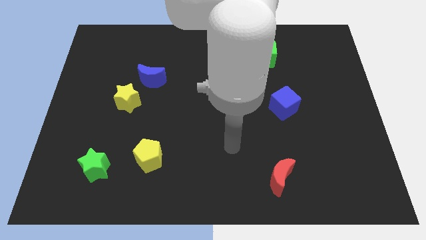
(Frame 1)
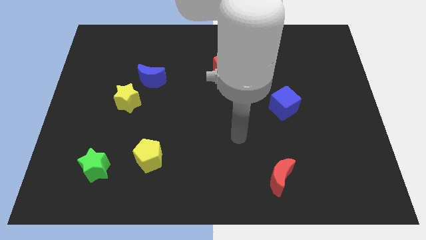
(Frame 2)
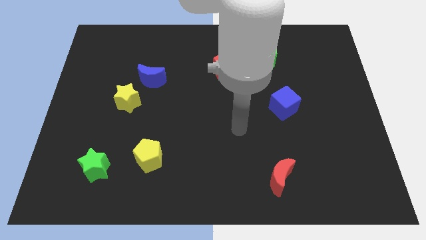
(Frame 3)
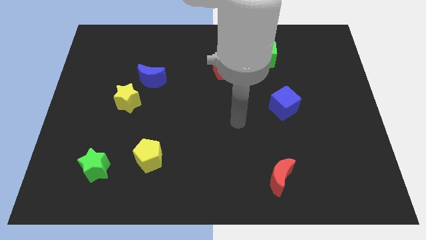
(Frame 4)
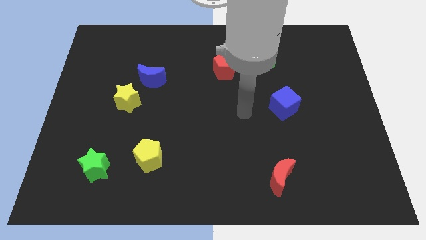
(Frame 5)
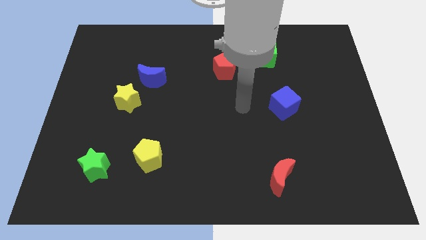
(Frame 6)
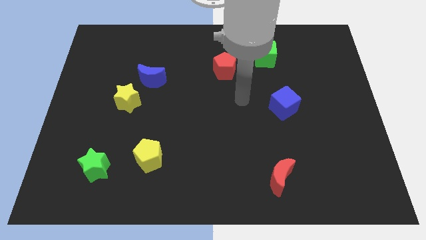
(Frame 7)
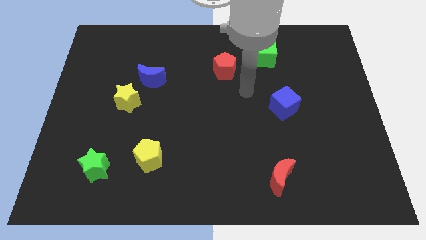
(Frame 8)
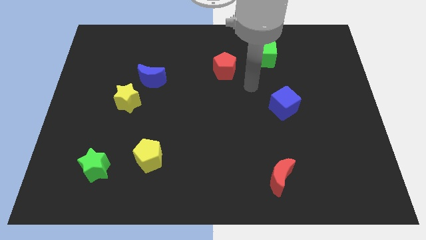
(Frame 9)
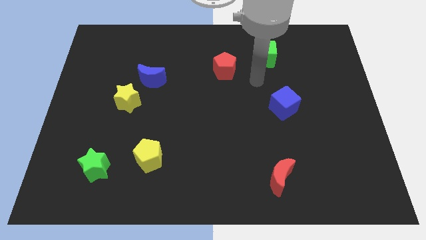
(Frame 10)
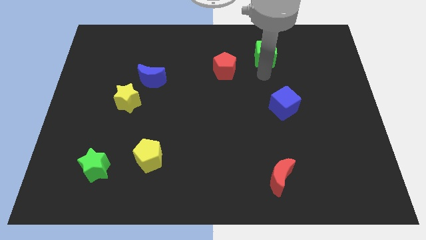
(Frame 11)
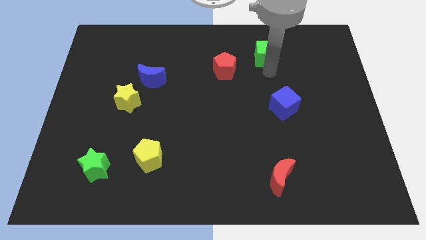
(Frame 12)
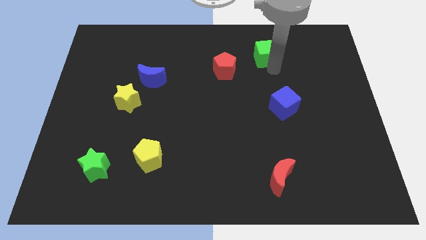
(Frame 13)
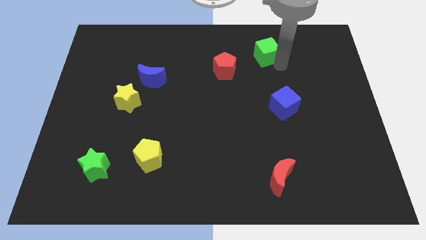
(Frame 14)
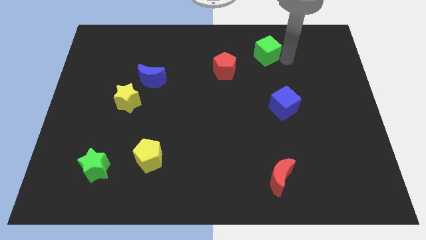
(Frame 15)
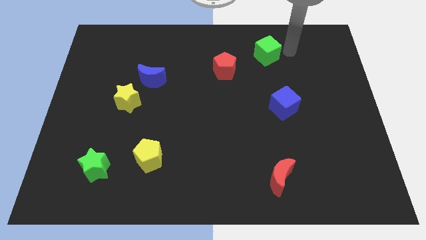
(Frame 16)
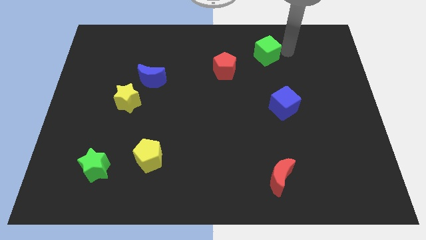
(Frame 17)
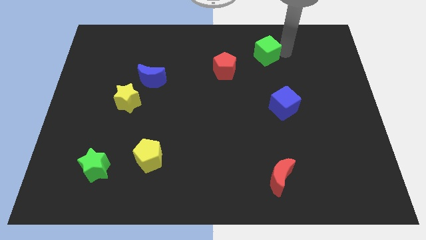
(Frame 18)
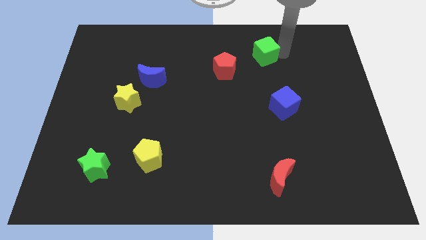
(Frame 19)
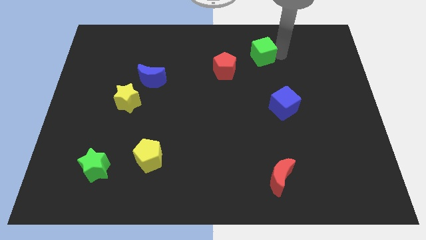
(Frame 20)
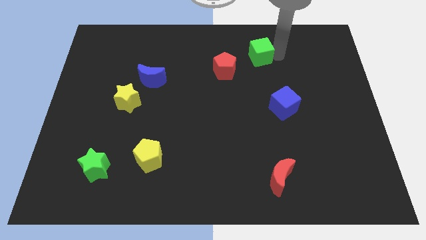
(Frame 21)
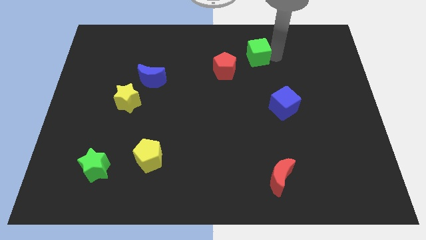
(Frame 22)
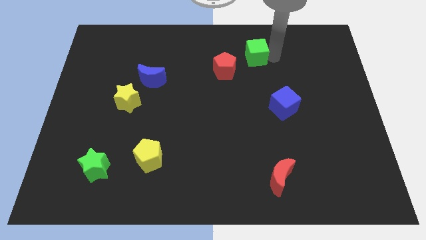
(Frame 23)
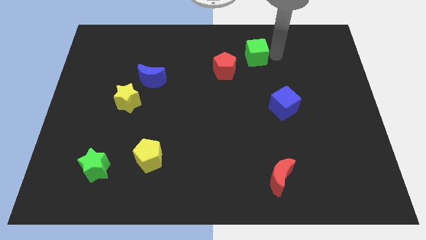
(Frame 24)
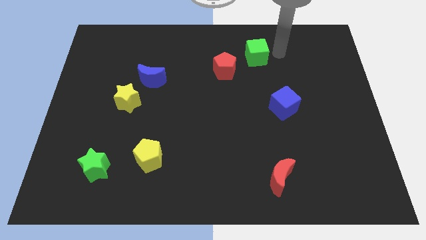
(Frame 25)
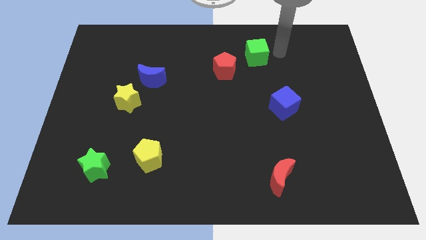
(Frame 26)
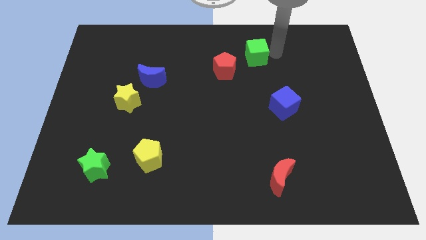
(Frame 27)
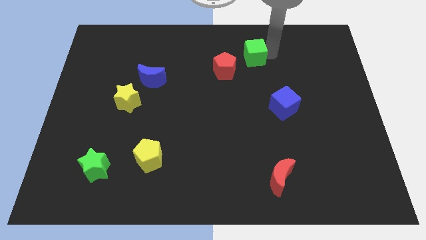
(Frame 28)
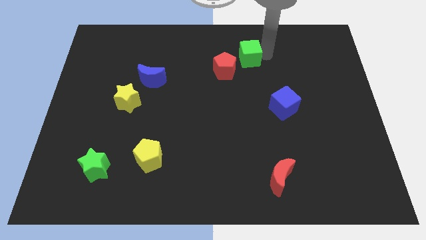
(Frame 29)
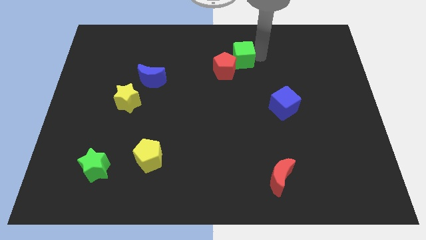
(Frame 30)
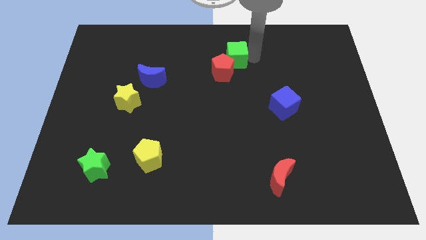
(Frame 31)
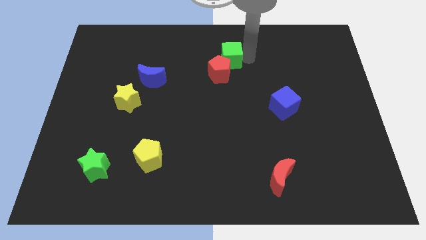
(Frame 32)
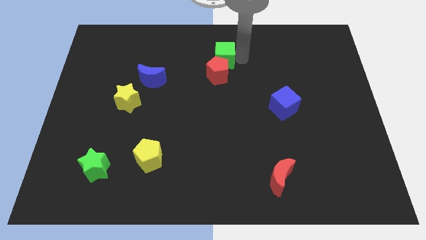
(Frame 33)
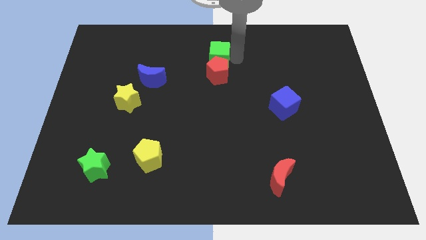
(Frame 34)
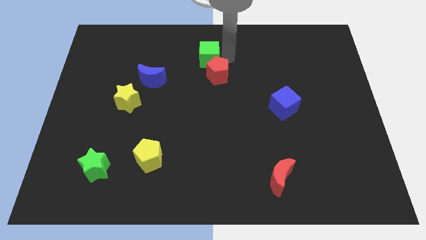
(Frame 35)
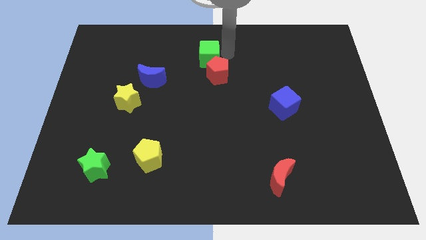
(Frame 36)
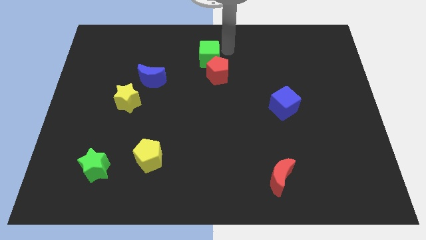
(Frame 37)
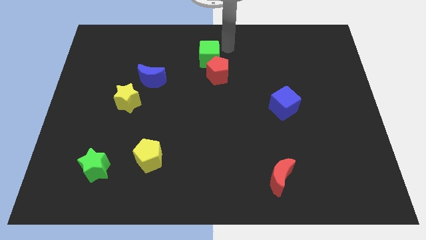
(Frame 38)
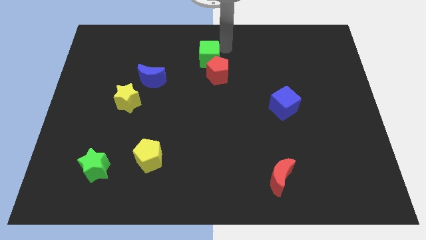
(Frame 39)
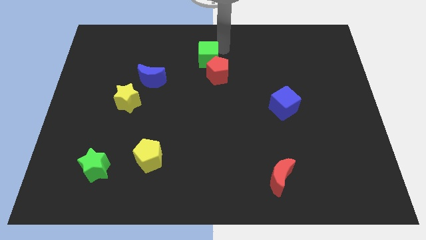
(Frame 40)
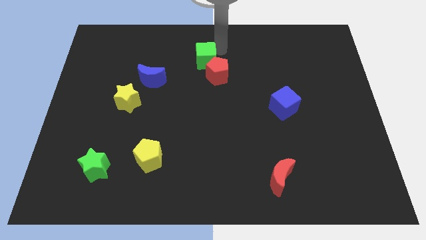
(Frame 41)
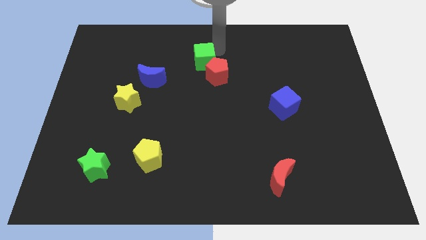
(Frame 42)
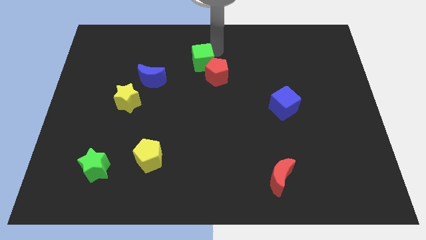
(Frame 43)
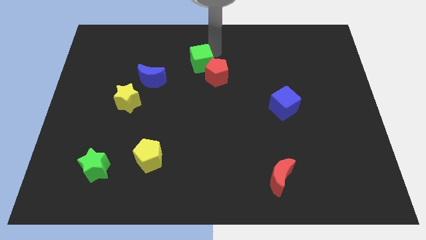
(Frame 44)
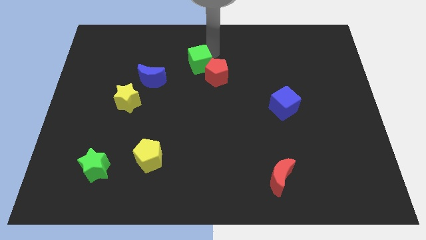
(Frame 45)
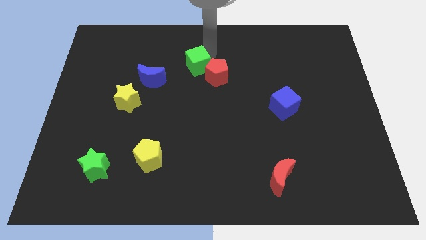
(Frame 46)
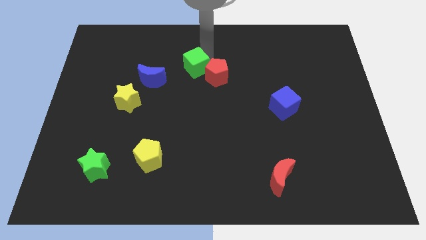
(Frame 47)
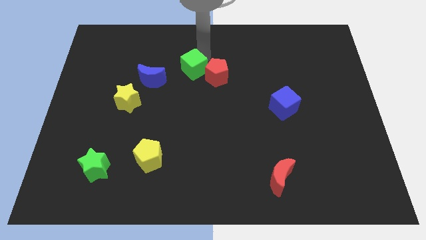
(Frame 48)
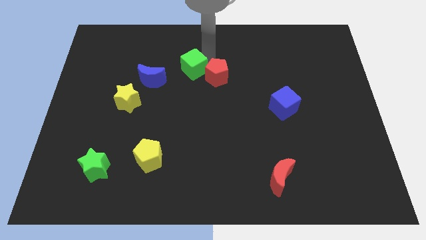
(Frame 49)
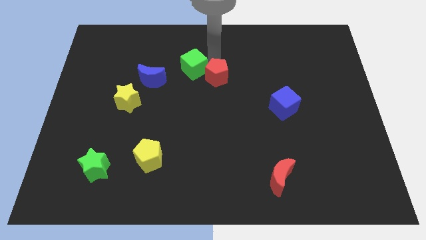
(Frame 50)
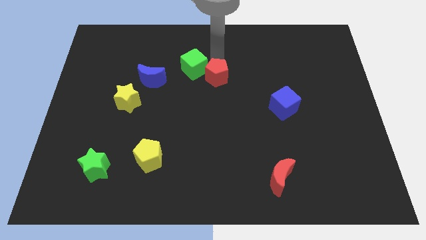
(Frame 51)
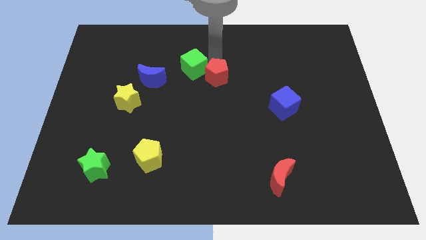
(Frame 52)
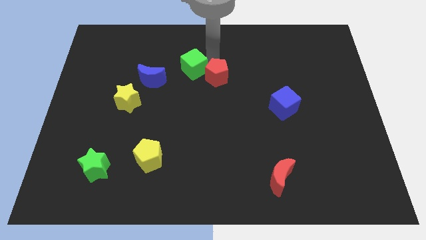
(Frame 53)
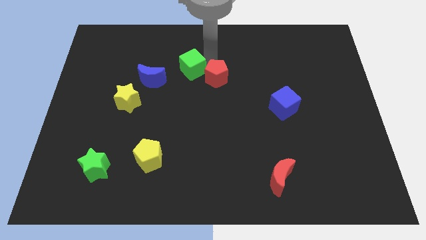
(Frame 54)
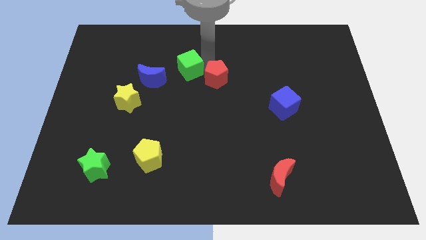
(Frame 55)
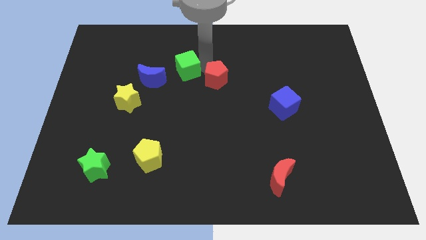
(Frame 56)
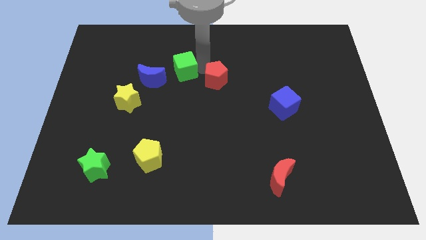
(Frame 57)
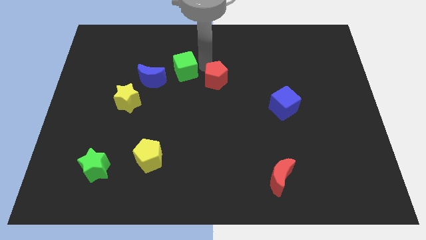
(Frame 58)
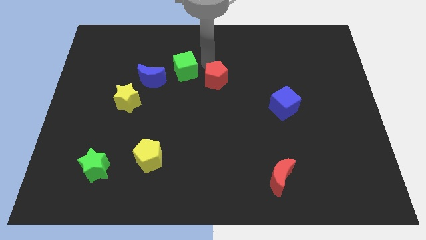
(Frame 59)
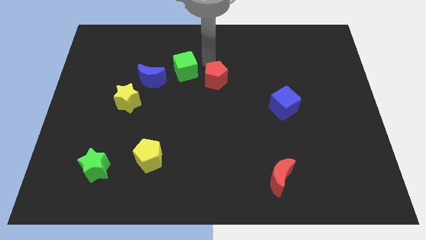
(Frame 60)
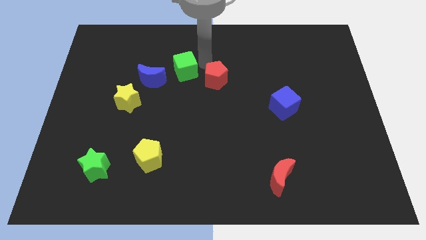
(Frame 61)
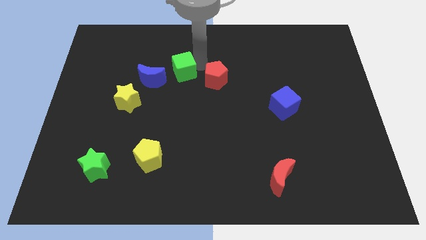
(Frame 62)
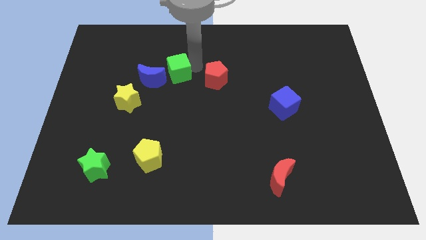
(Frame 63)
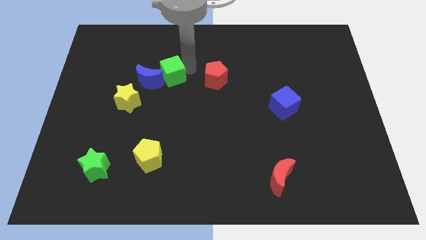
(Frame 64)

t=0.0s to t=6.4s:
slide the green cube close to the blue moon
